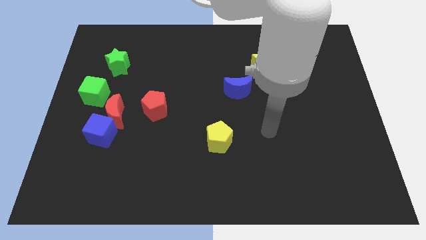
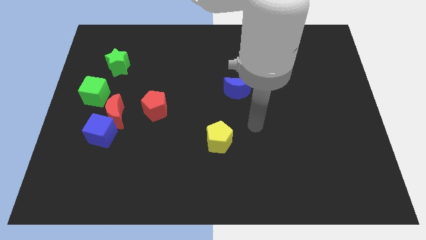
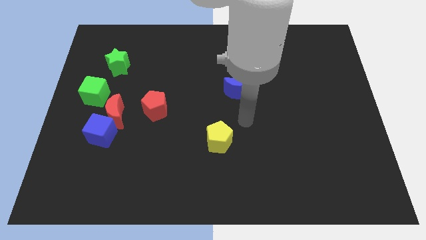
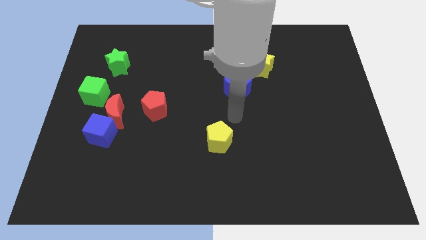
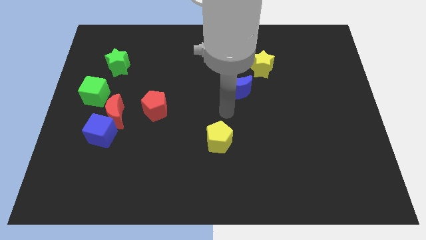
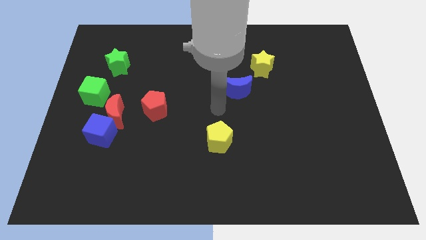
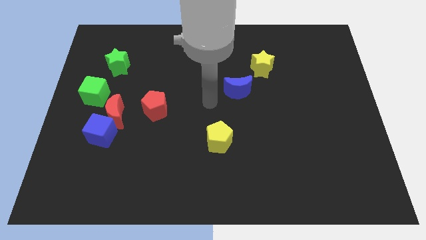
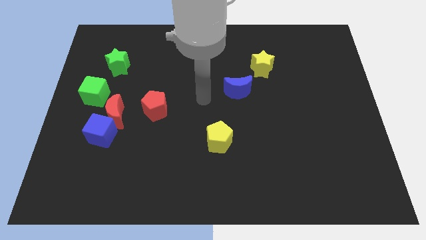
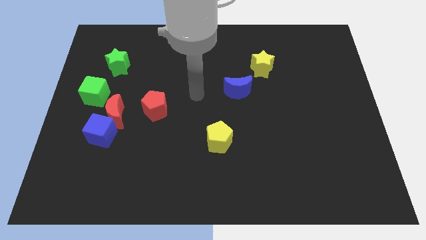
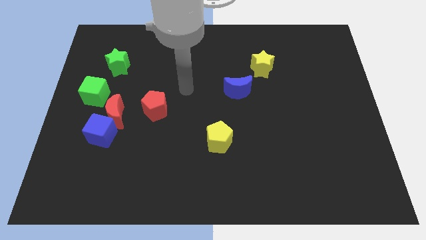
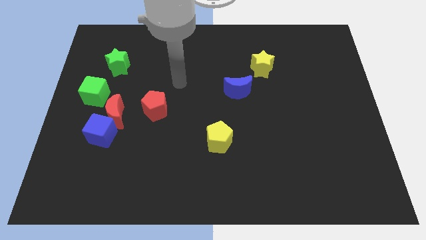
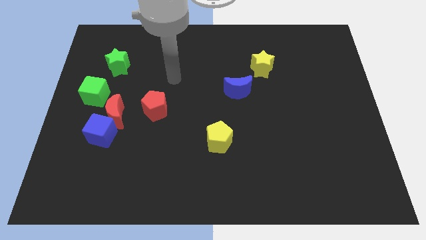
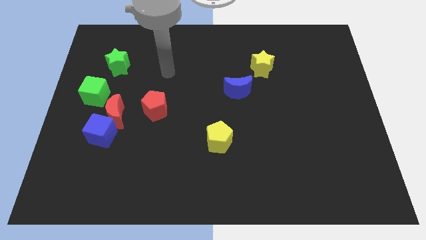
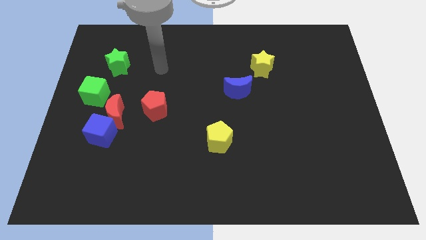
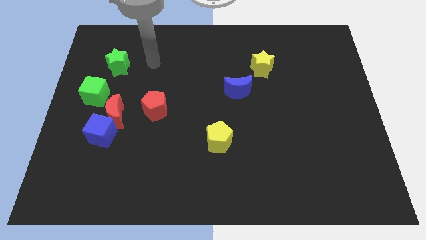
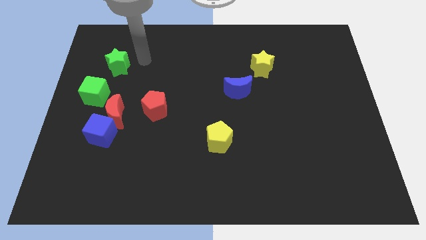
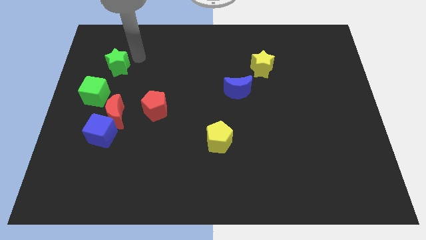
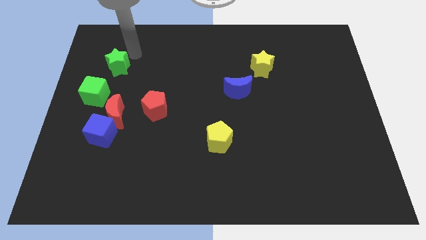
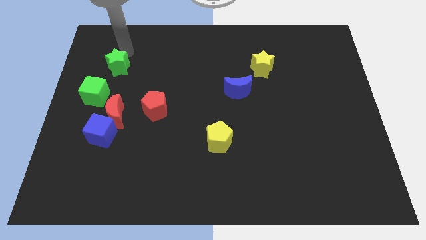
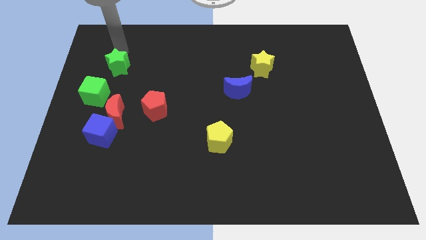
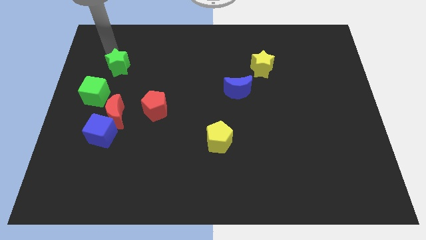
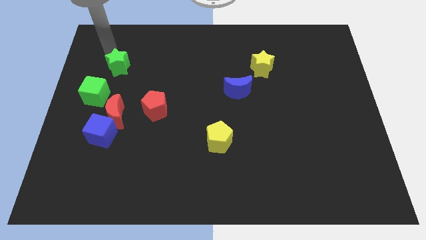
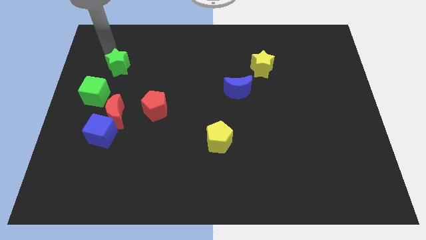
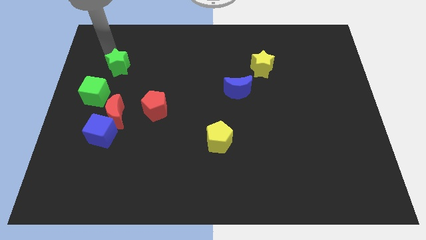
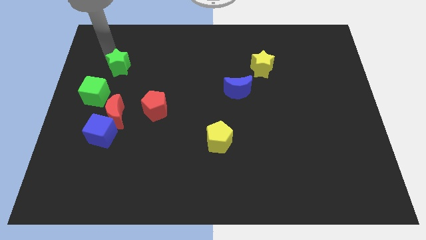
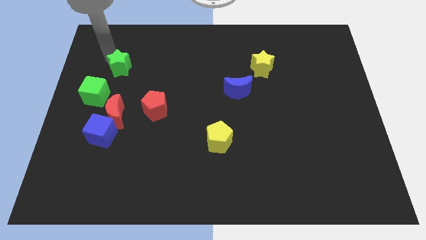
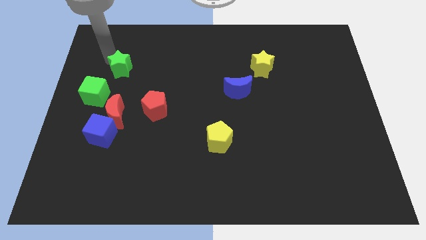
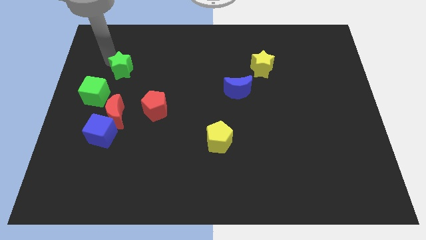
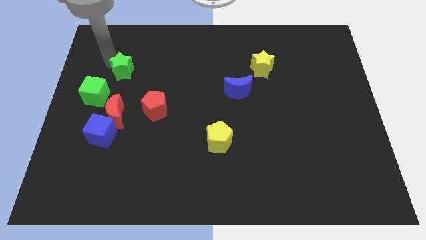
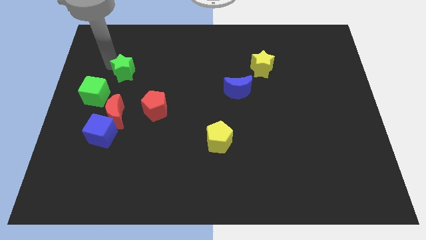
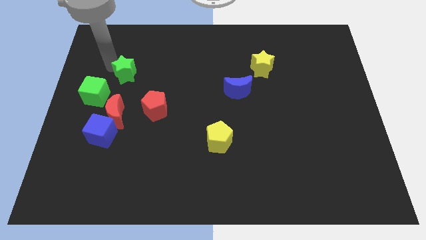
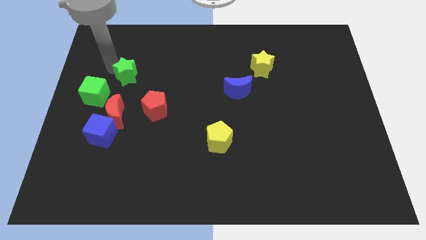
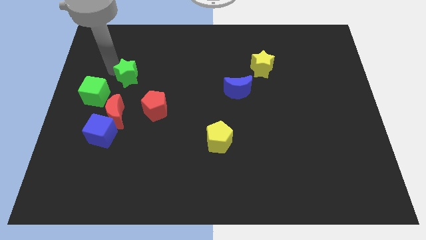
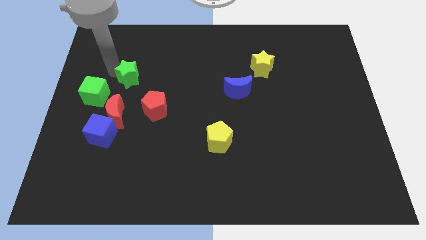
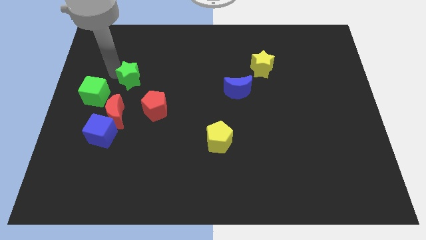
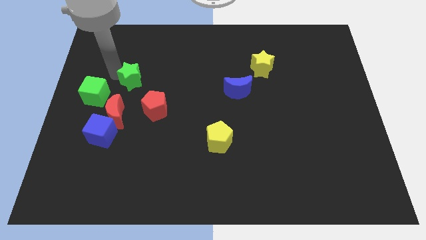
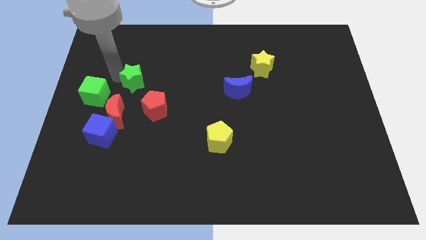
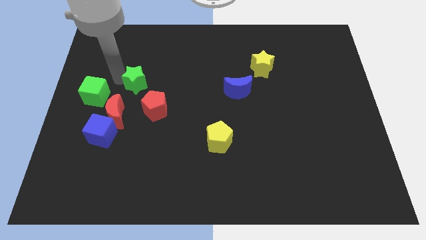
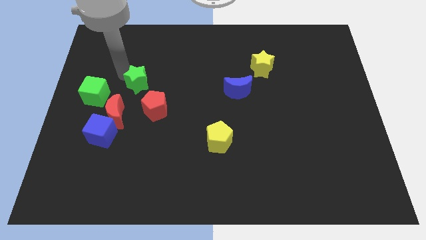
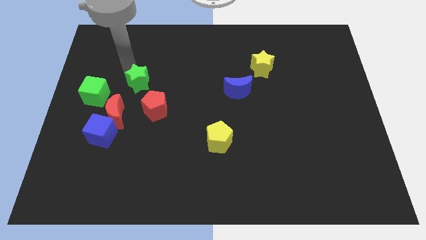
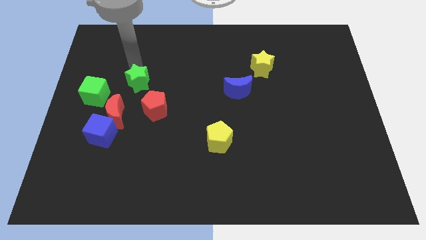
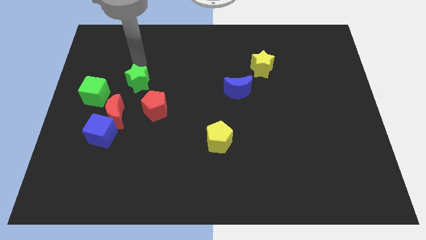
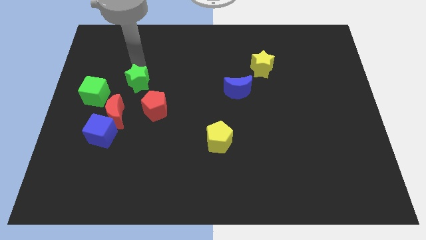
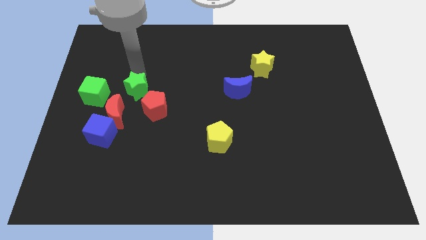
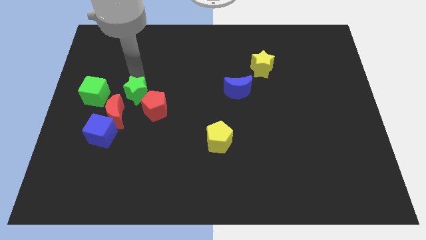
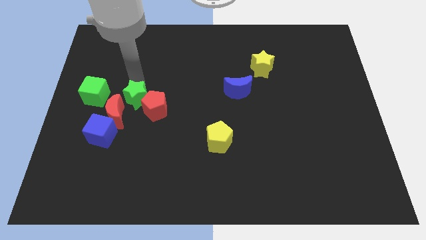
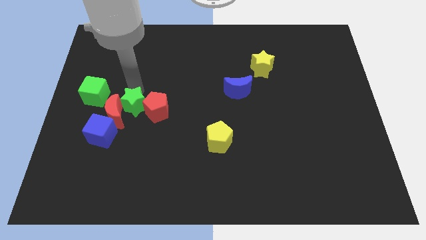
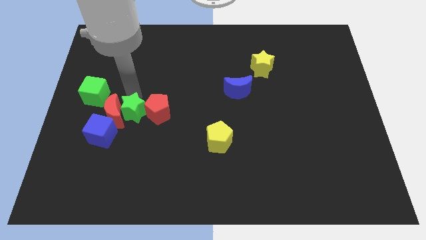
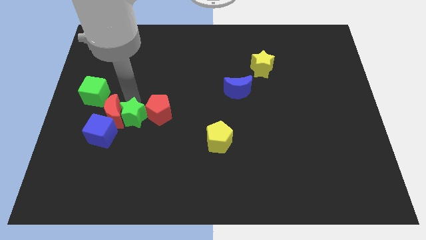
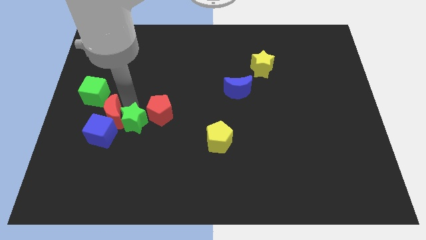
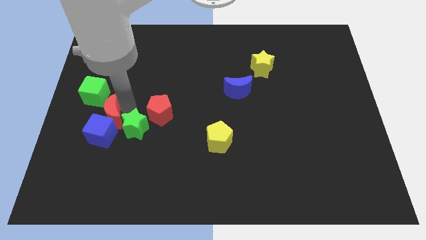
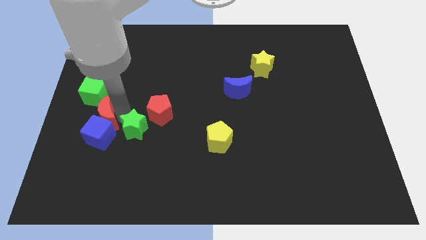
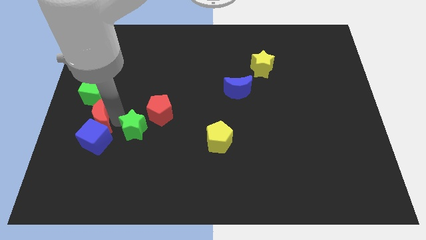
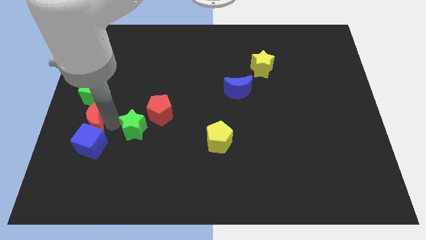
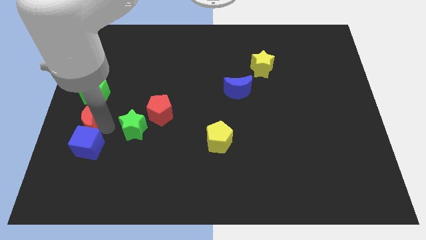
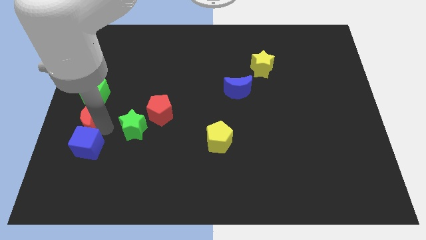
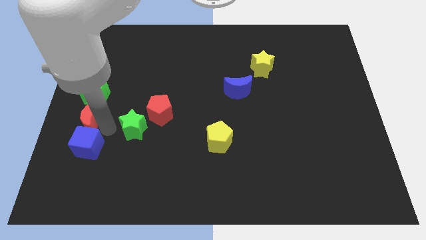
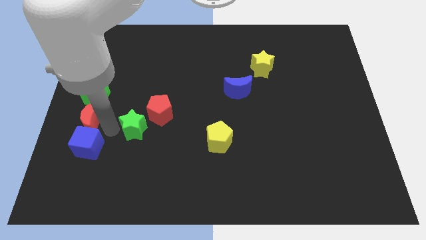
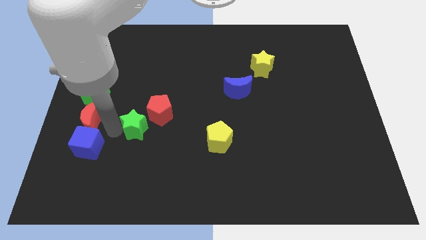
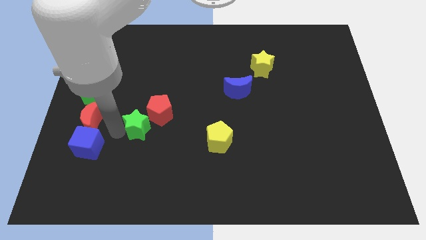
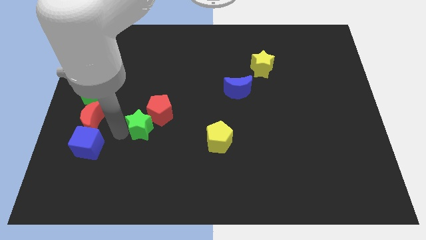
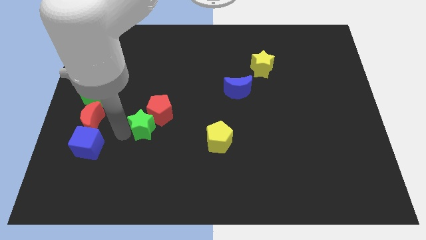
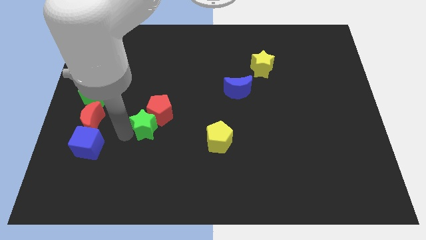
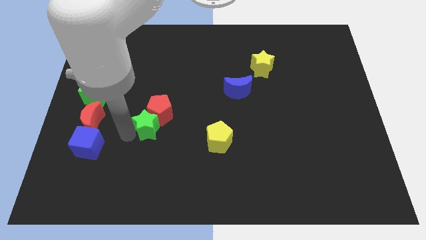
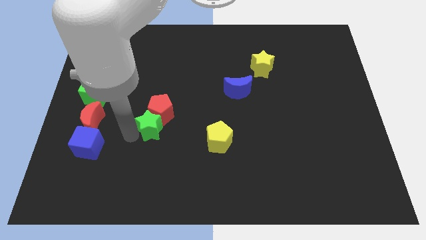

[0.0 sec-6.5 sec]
push the green star left of the yellow pentagon

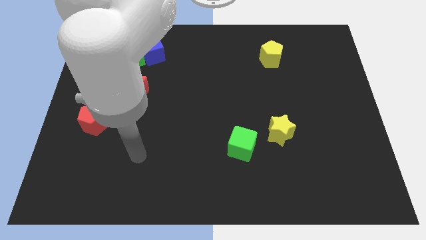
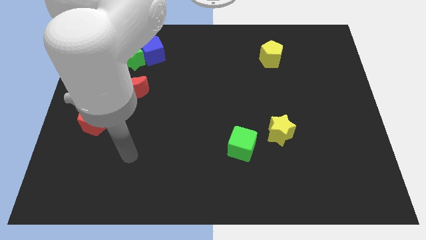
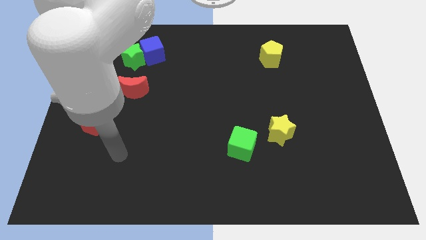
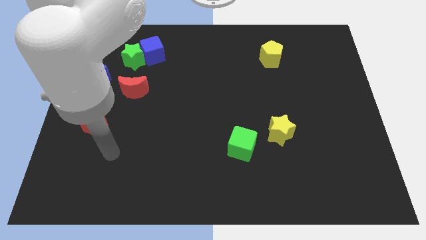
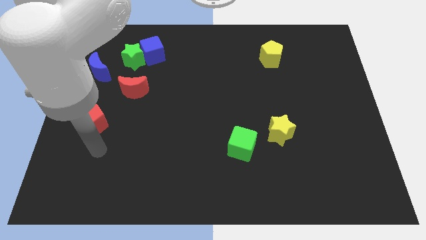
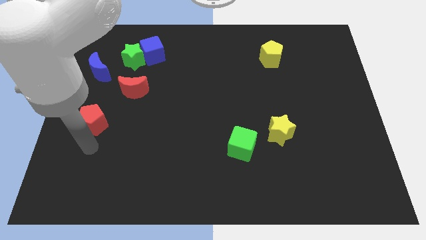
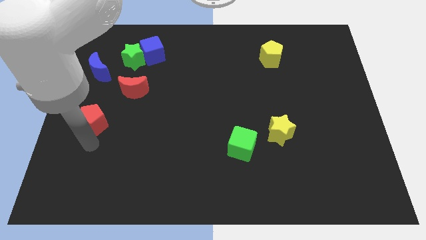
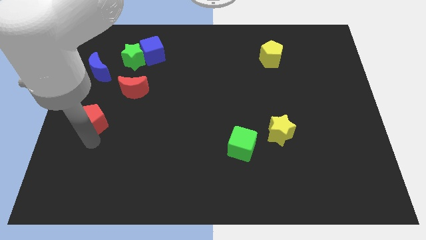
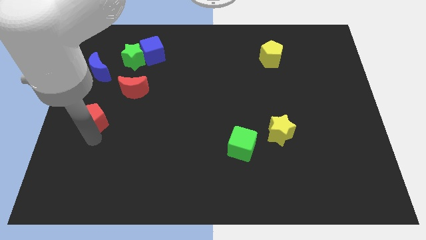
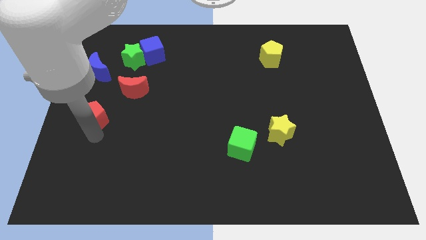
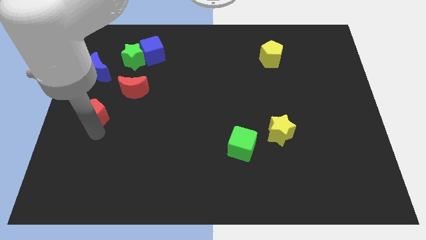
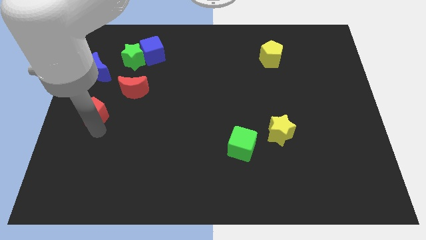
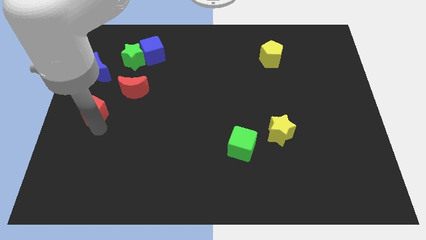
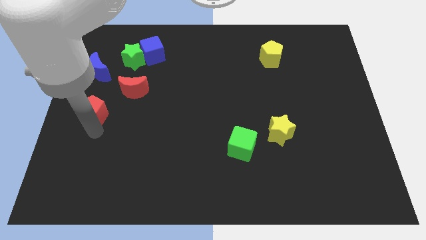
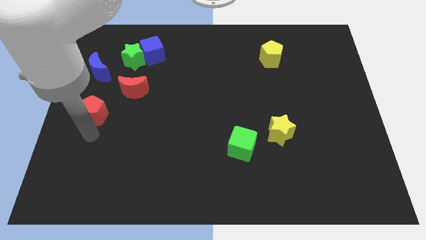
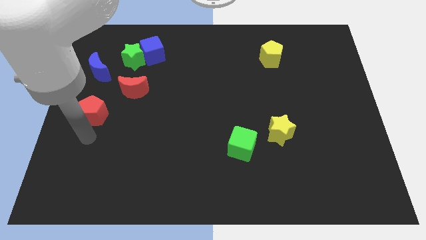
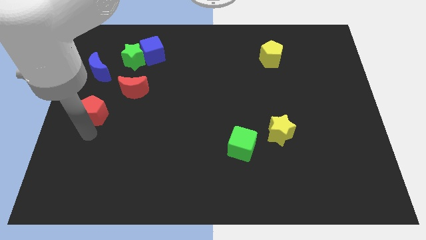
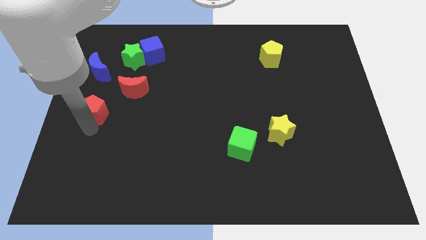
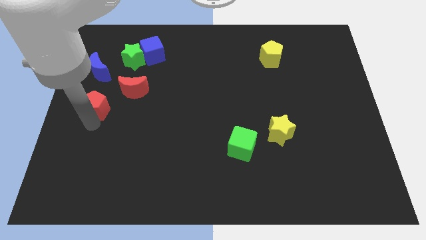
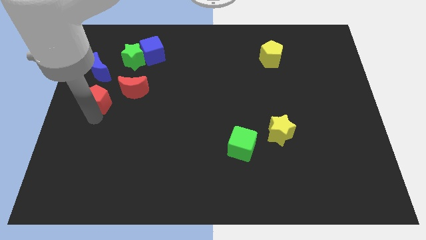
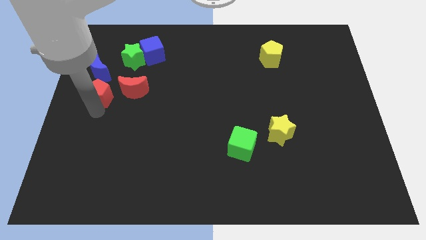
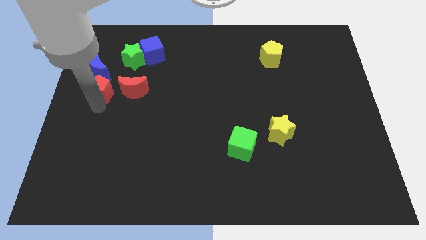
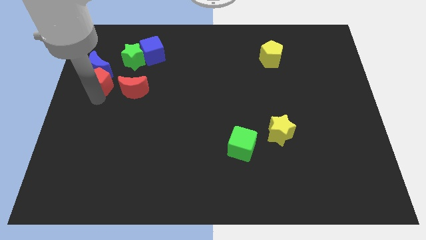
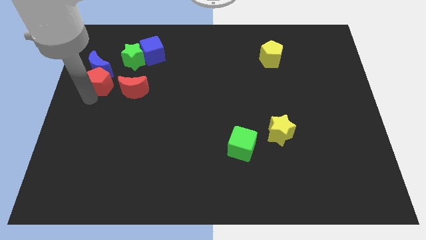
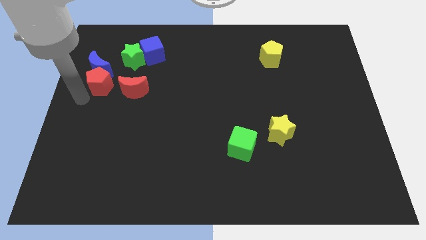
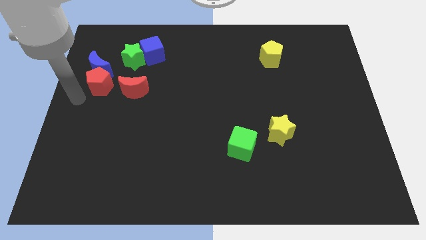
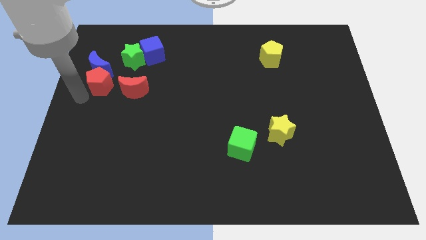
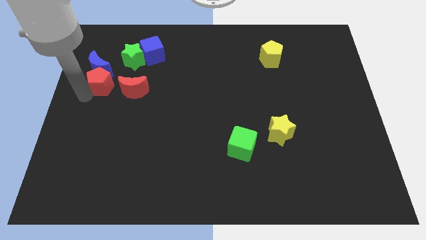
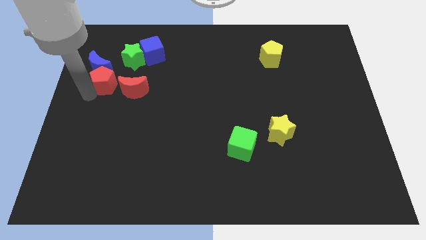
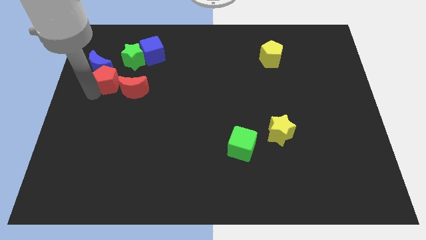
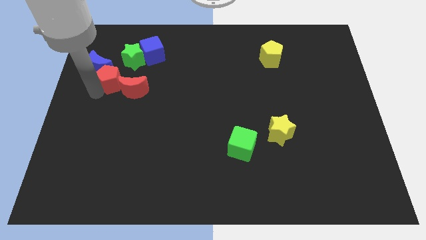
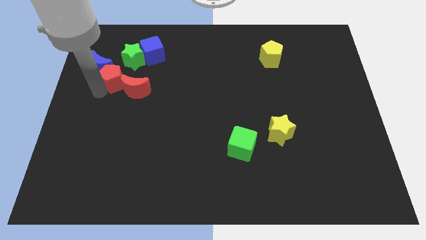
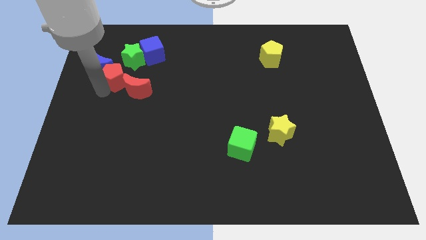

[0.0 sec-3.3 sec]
slide the red pentagon to the bottom left of the blue cube
